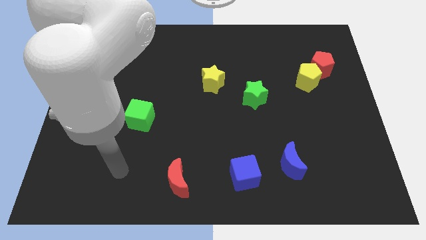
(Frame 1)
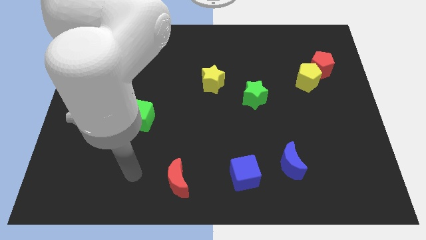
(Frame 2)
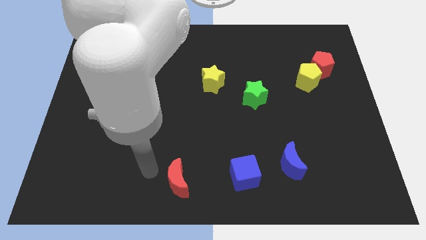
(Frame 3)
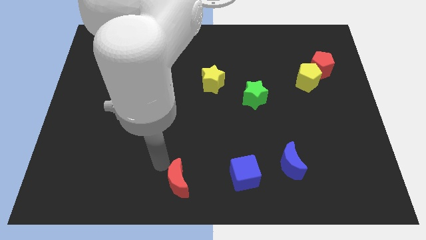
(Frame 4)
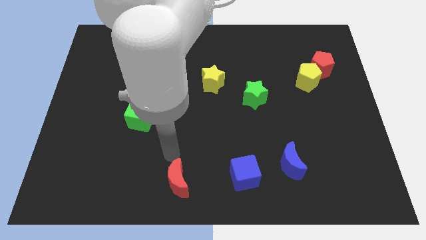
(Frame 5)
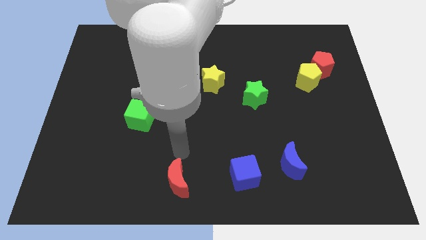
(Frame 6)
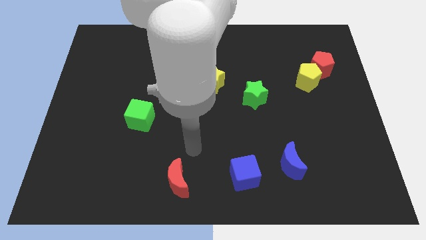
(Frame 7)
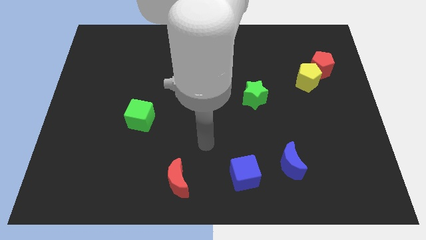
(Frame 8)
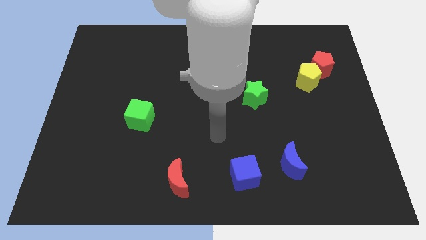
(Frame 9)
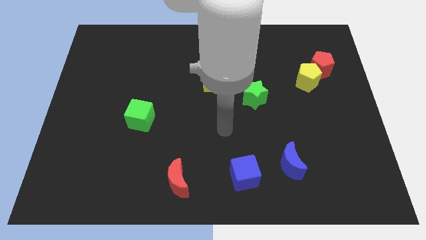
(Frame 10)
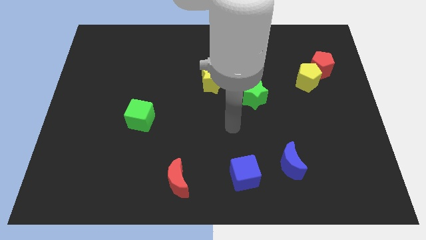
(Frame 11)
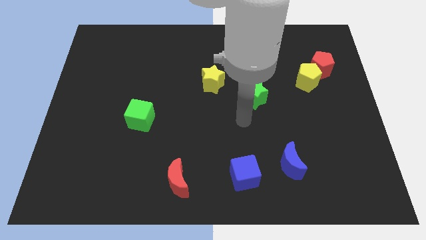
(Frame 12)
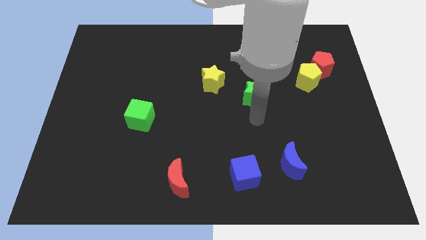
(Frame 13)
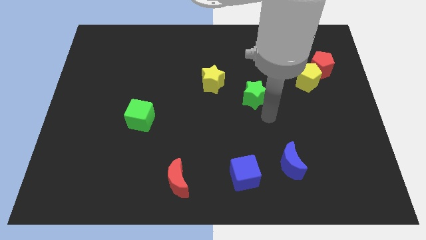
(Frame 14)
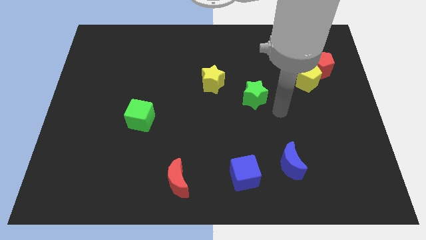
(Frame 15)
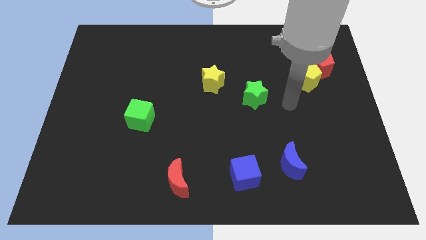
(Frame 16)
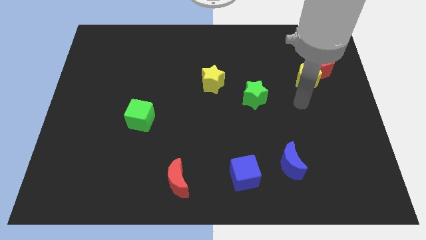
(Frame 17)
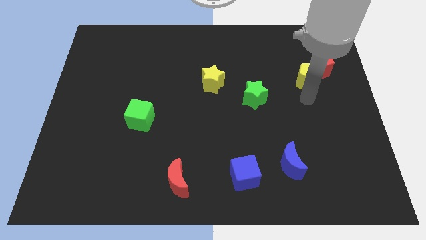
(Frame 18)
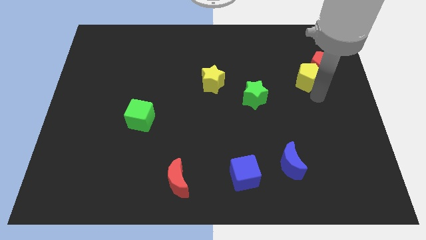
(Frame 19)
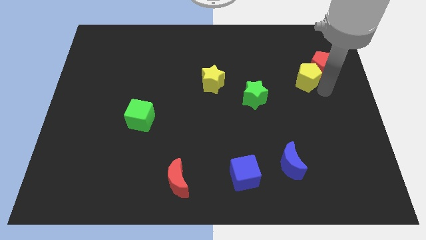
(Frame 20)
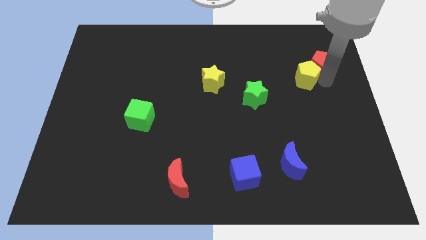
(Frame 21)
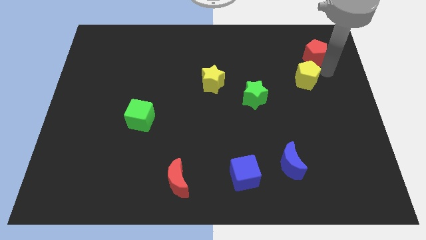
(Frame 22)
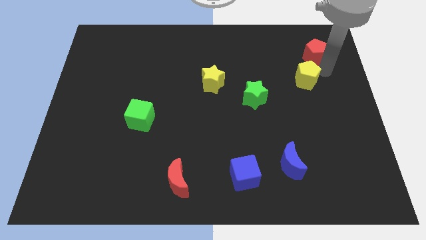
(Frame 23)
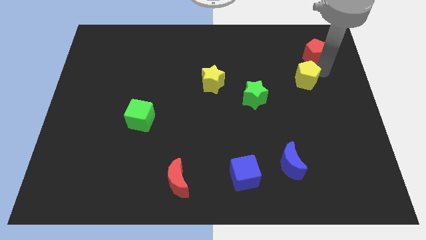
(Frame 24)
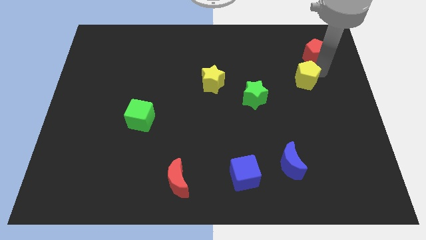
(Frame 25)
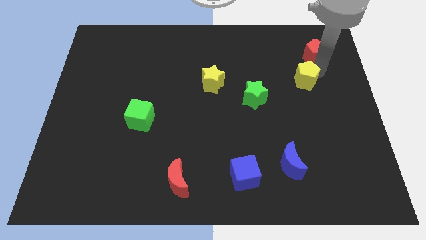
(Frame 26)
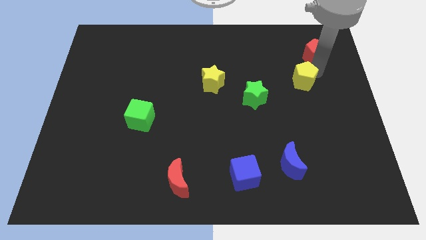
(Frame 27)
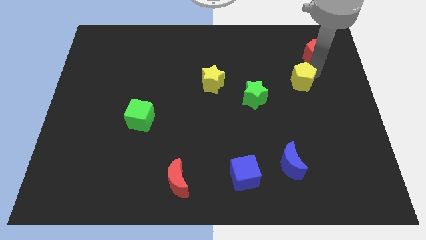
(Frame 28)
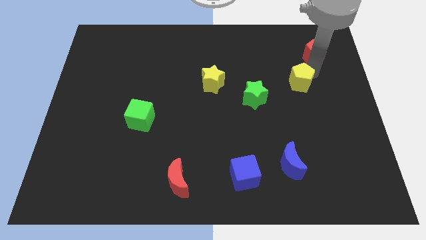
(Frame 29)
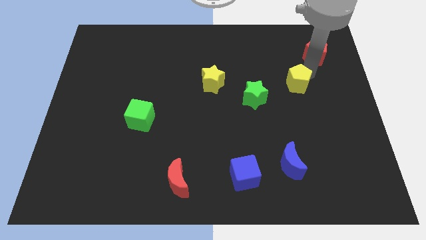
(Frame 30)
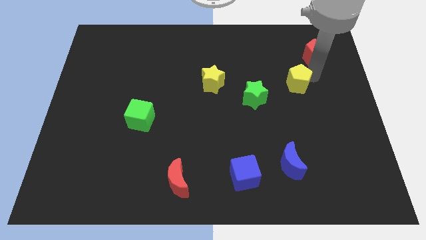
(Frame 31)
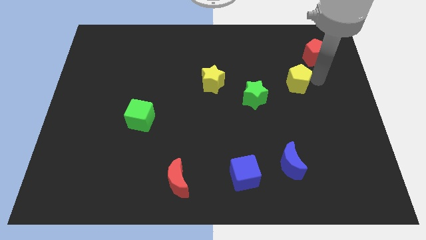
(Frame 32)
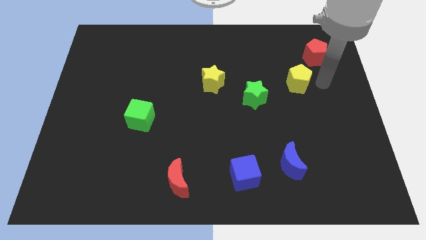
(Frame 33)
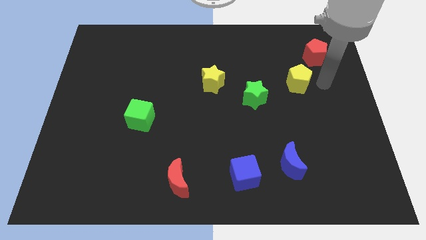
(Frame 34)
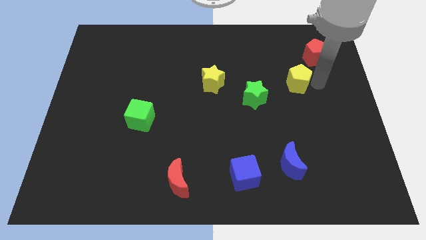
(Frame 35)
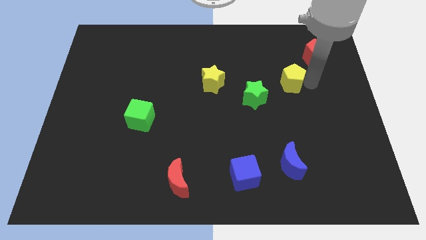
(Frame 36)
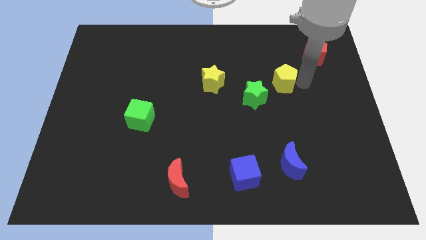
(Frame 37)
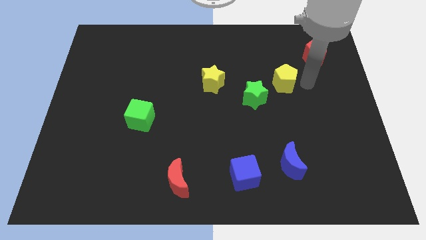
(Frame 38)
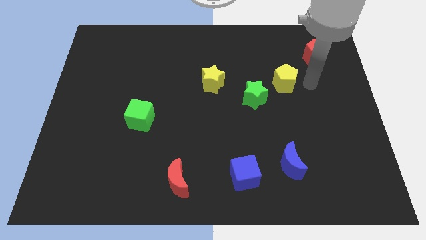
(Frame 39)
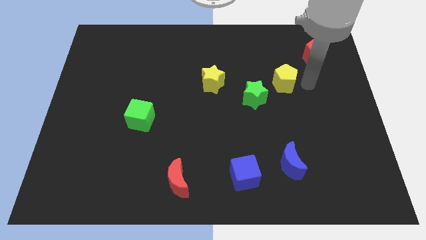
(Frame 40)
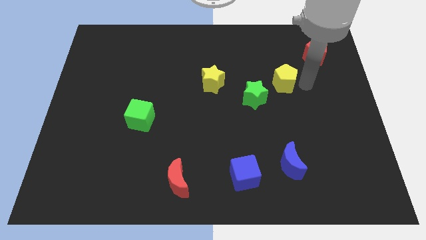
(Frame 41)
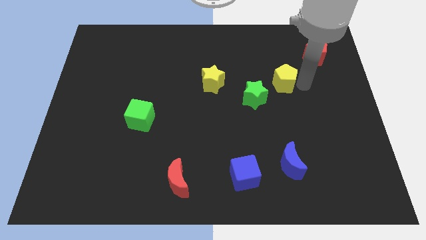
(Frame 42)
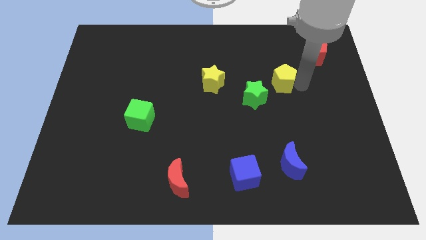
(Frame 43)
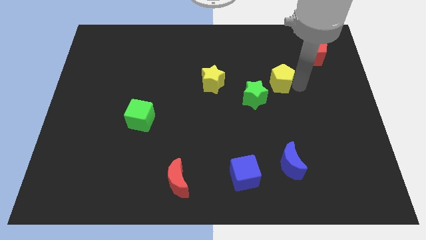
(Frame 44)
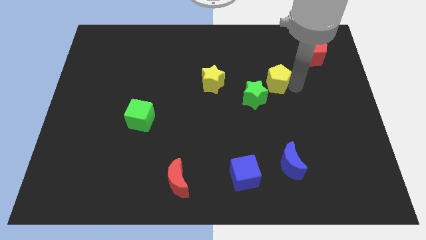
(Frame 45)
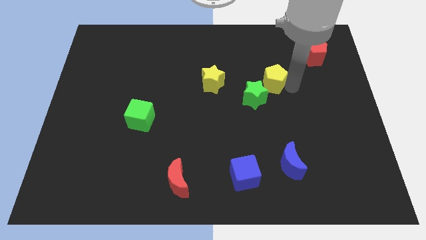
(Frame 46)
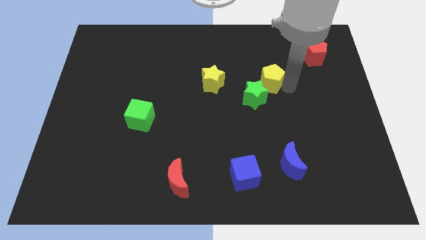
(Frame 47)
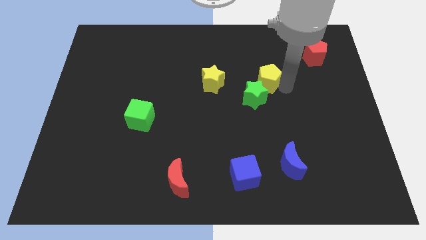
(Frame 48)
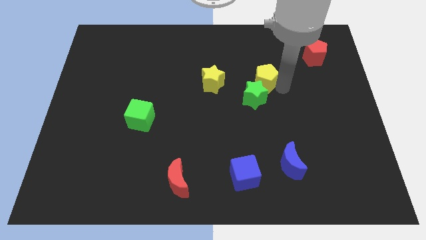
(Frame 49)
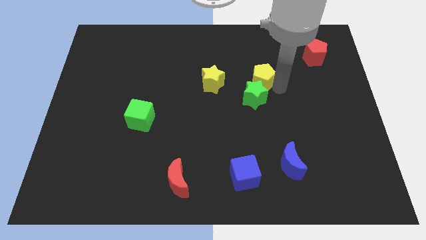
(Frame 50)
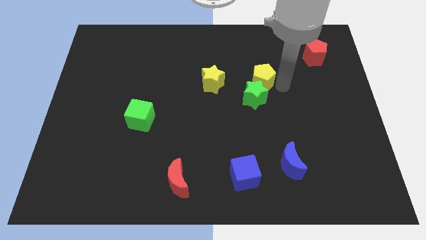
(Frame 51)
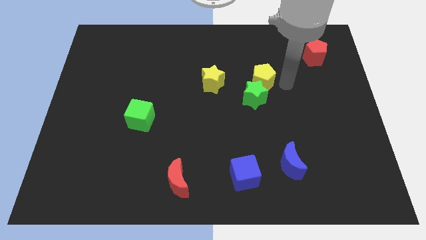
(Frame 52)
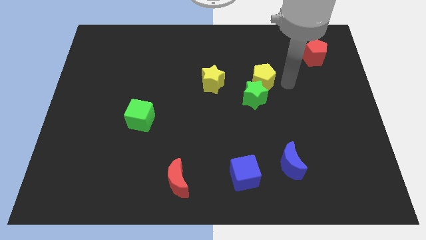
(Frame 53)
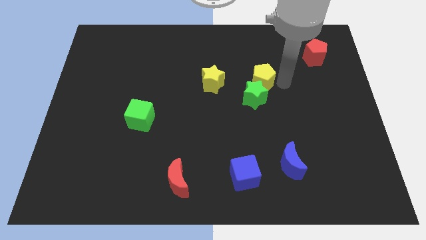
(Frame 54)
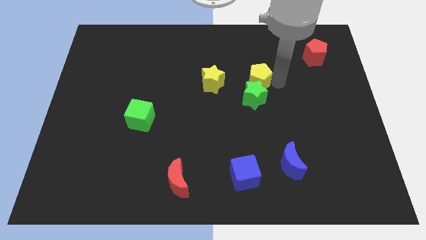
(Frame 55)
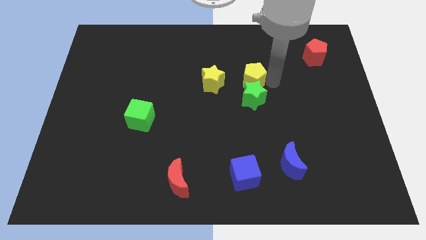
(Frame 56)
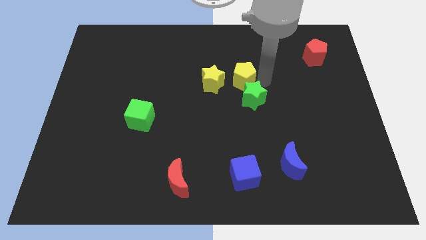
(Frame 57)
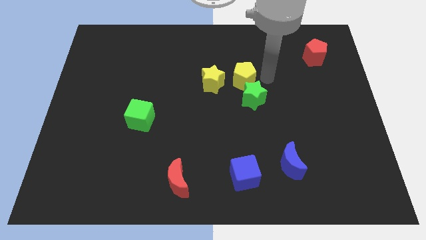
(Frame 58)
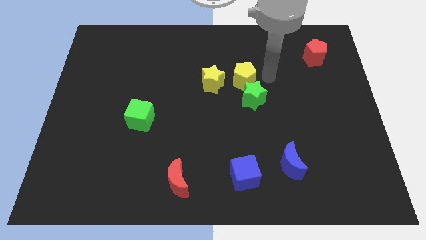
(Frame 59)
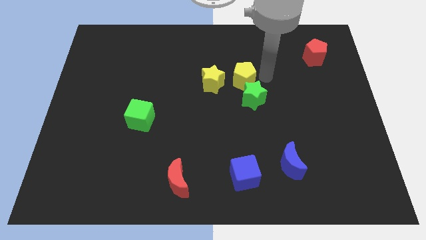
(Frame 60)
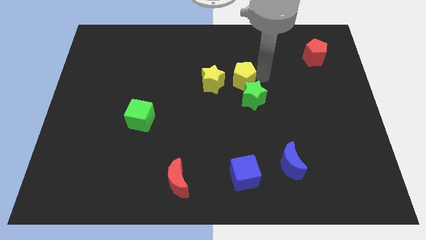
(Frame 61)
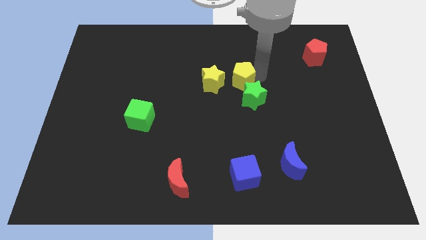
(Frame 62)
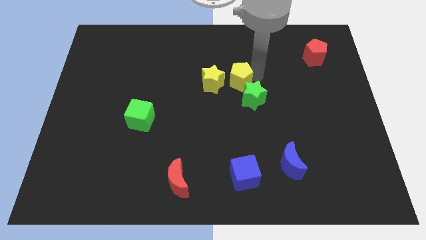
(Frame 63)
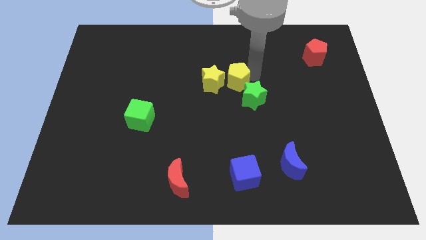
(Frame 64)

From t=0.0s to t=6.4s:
push the yellow pentagon close to the yellow star

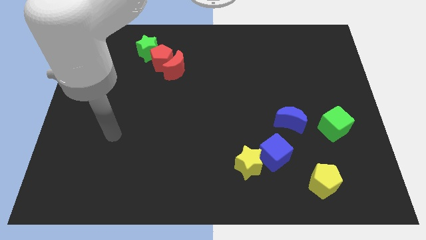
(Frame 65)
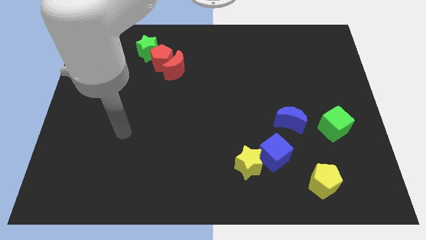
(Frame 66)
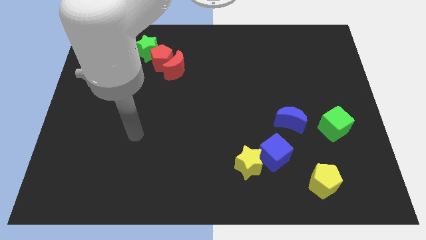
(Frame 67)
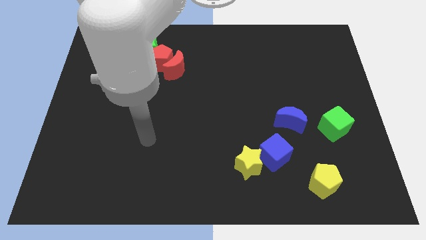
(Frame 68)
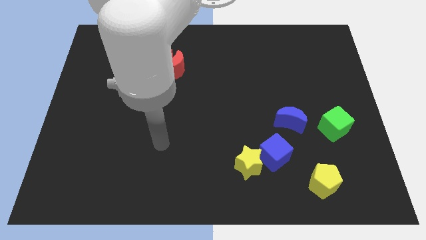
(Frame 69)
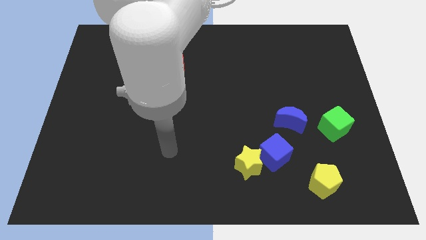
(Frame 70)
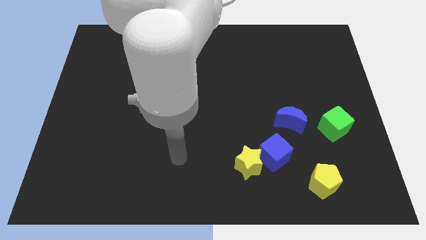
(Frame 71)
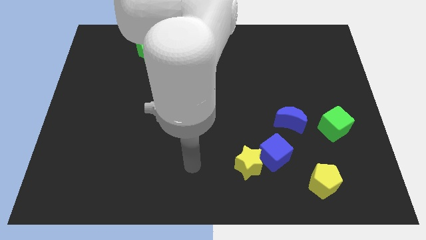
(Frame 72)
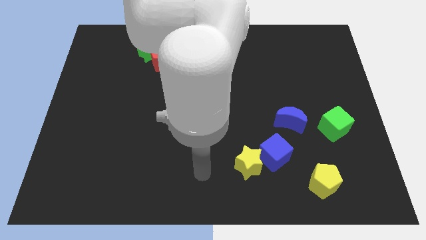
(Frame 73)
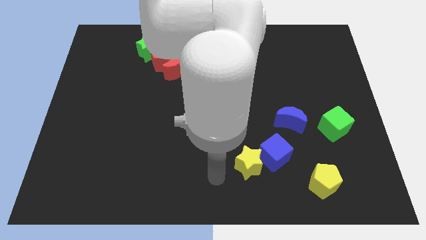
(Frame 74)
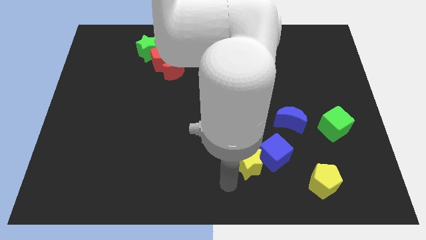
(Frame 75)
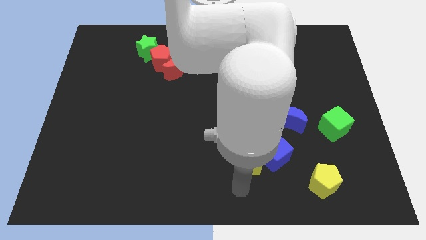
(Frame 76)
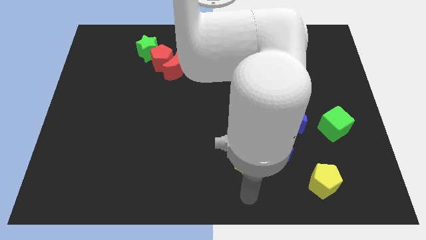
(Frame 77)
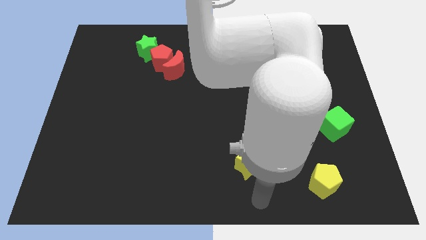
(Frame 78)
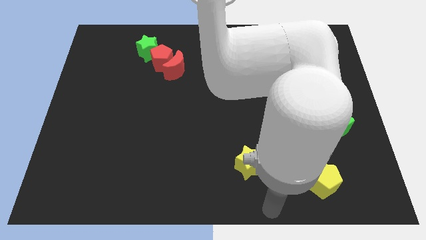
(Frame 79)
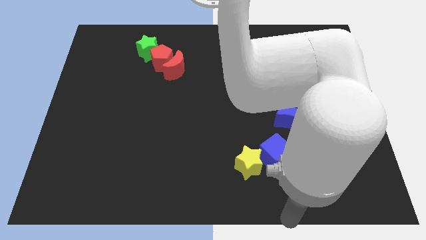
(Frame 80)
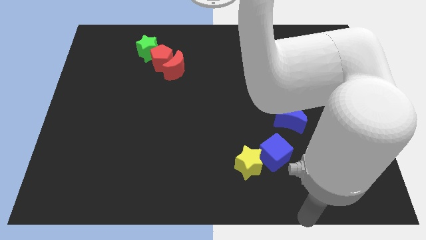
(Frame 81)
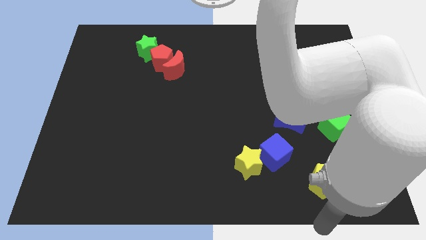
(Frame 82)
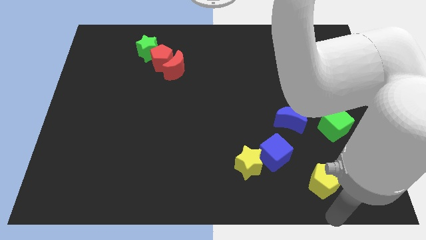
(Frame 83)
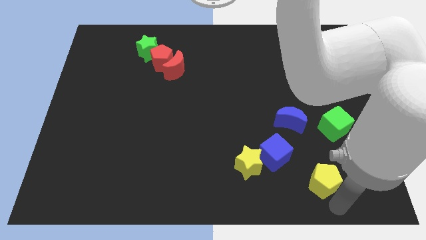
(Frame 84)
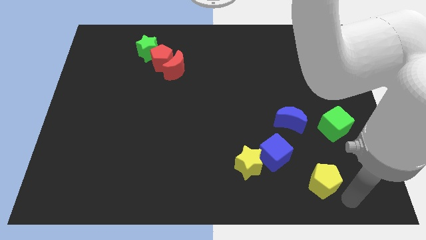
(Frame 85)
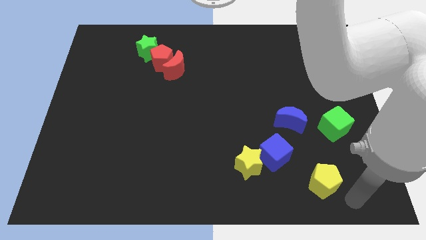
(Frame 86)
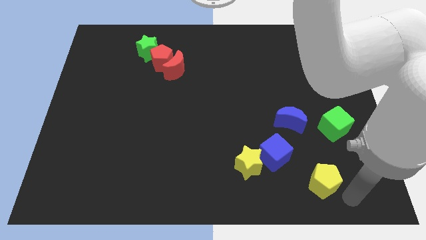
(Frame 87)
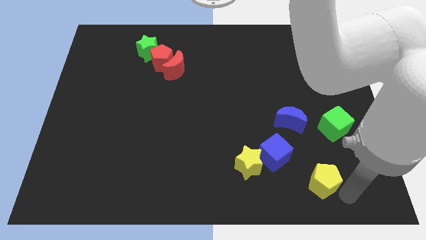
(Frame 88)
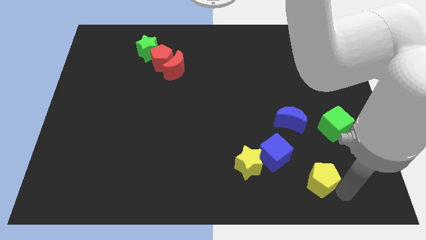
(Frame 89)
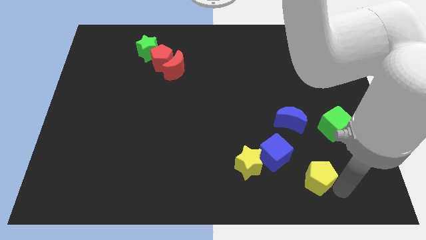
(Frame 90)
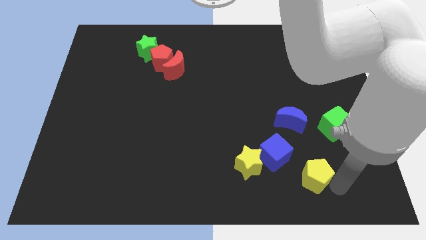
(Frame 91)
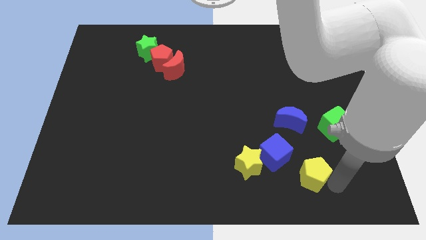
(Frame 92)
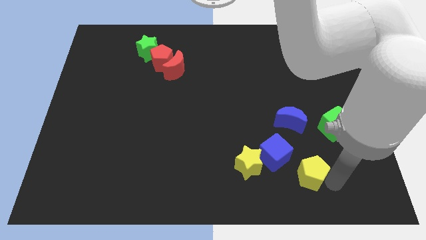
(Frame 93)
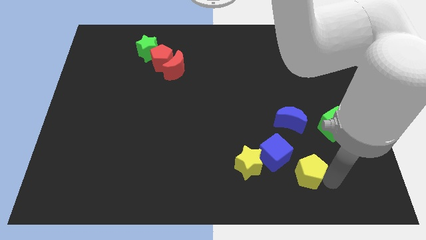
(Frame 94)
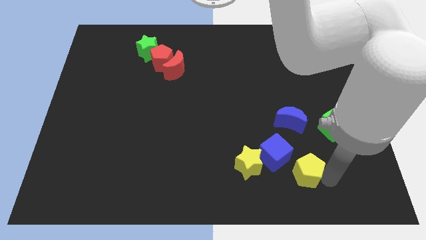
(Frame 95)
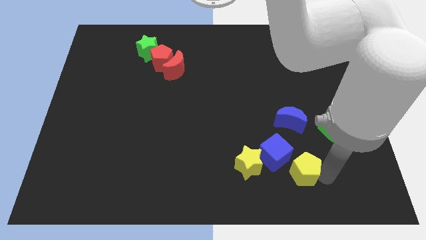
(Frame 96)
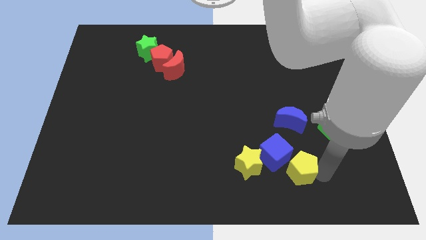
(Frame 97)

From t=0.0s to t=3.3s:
move the yellow pentagon next to the blue cube
